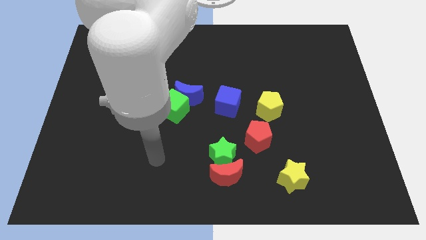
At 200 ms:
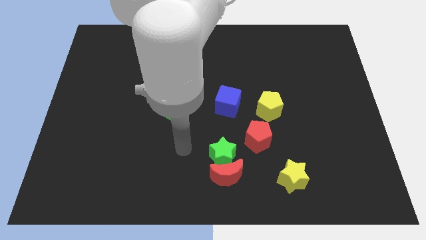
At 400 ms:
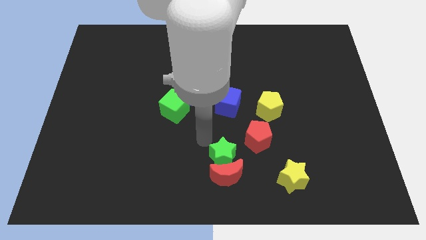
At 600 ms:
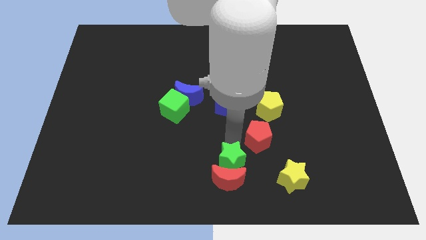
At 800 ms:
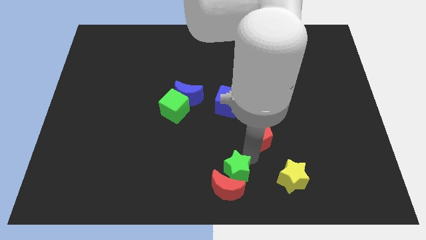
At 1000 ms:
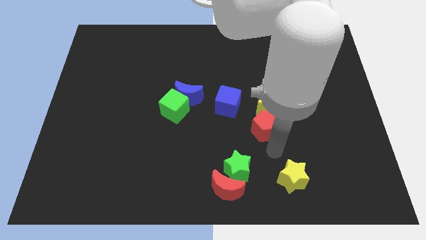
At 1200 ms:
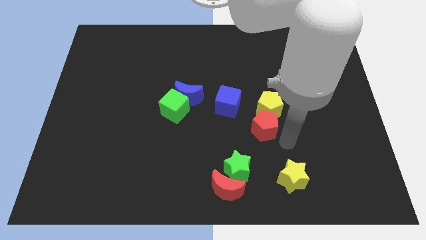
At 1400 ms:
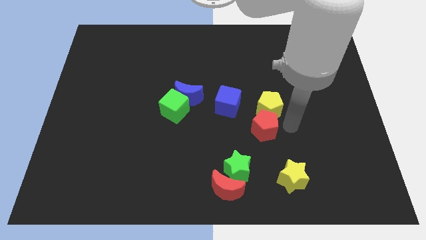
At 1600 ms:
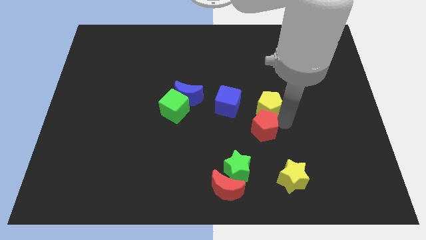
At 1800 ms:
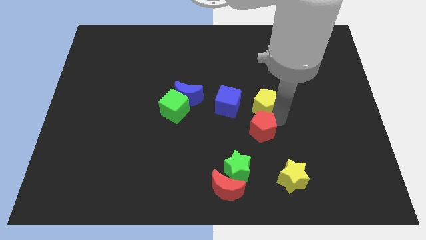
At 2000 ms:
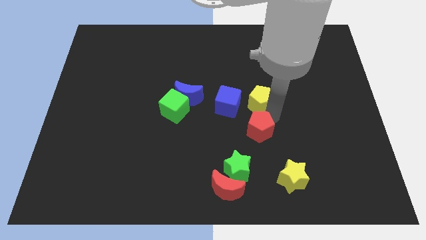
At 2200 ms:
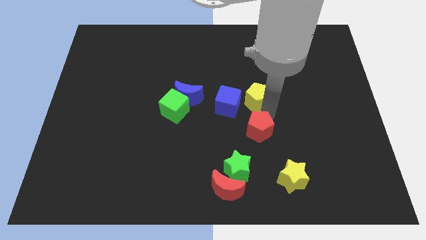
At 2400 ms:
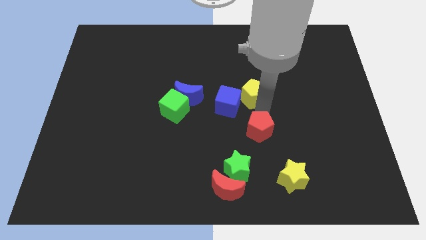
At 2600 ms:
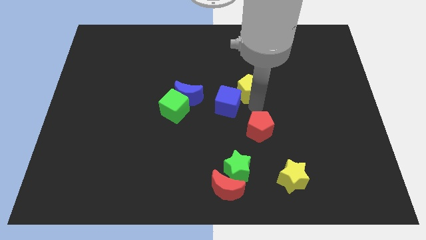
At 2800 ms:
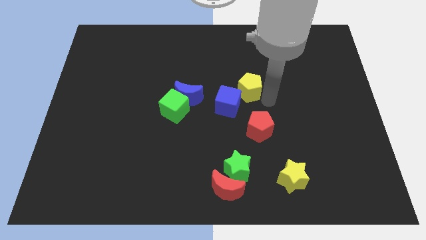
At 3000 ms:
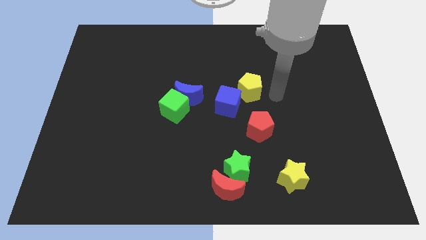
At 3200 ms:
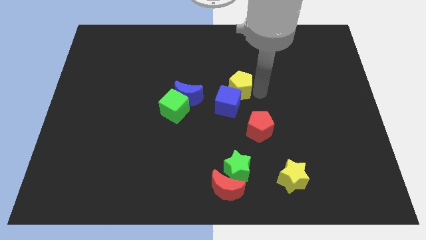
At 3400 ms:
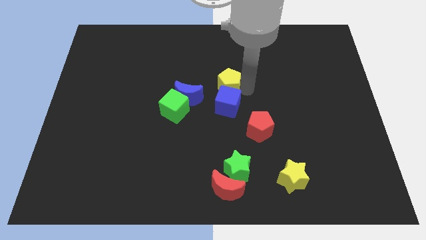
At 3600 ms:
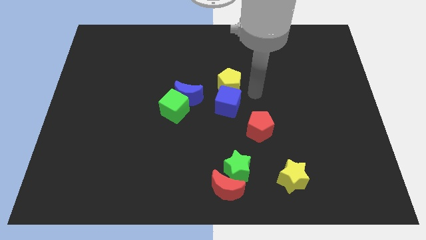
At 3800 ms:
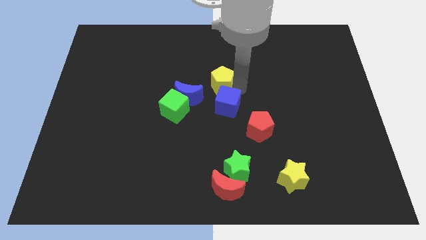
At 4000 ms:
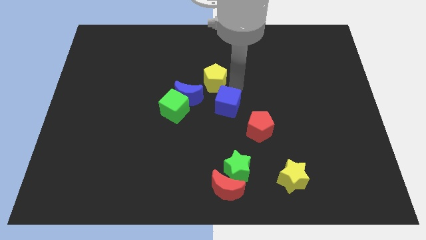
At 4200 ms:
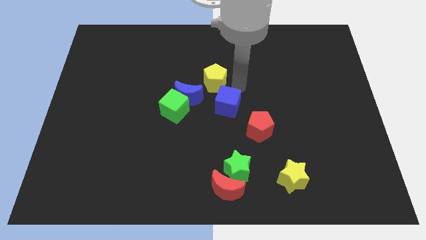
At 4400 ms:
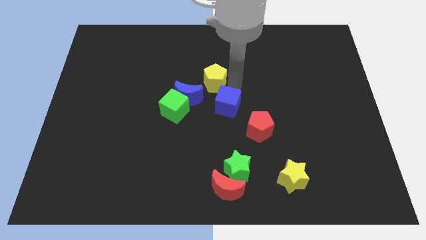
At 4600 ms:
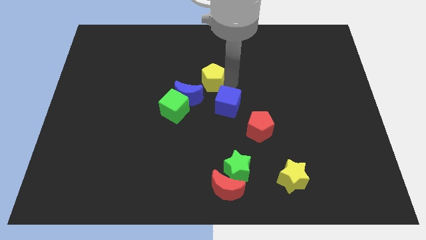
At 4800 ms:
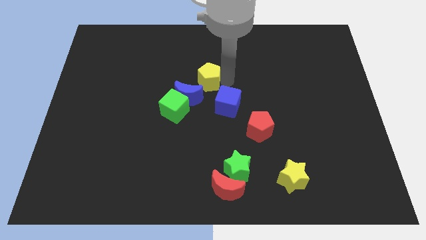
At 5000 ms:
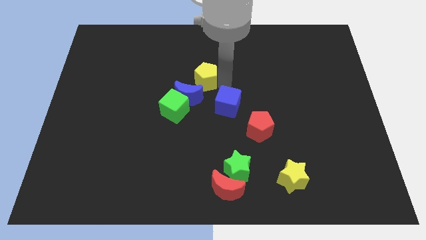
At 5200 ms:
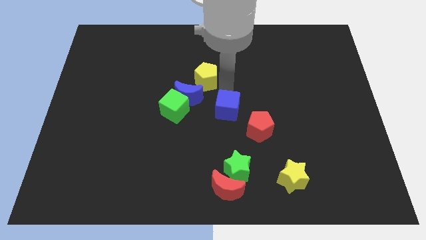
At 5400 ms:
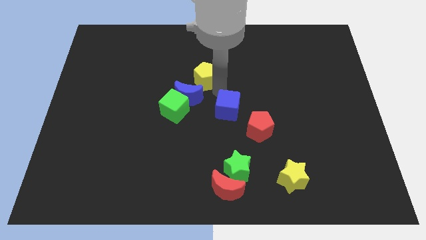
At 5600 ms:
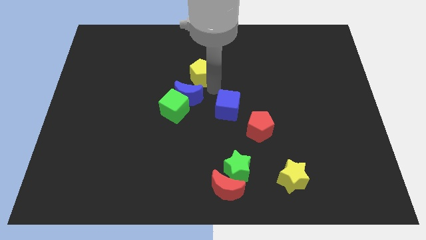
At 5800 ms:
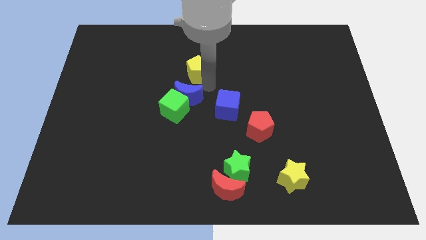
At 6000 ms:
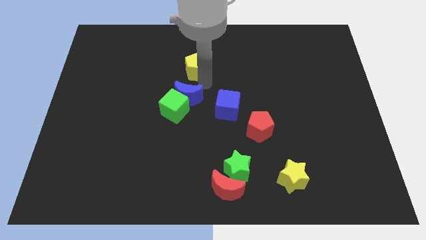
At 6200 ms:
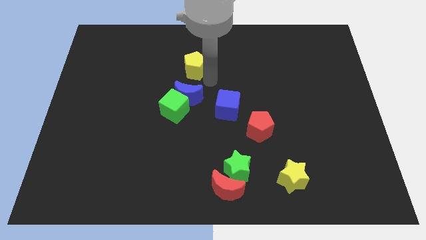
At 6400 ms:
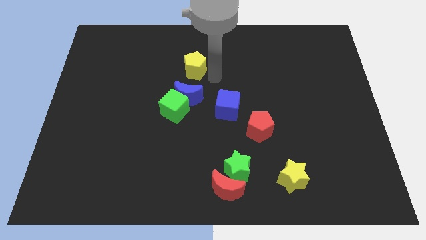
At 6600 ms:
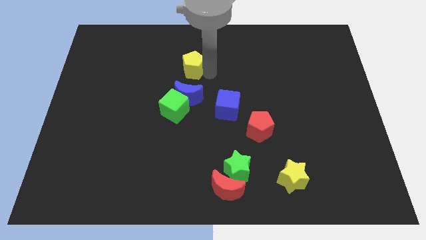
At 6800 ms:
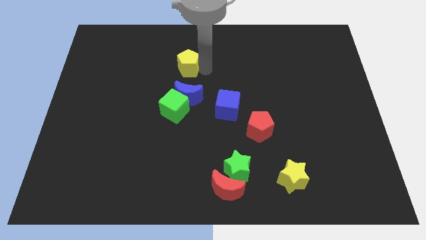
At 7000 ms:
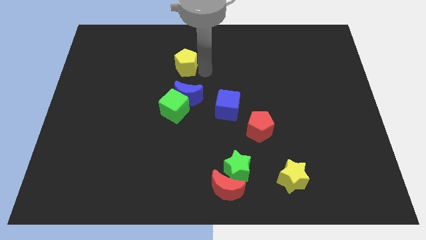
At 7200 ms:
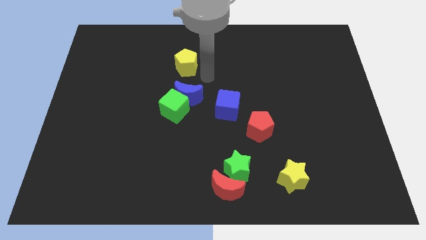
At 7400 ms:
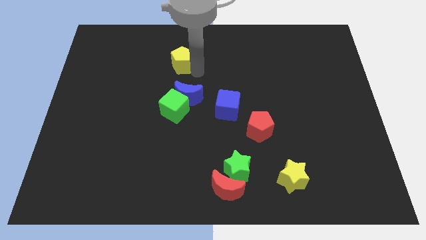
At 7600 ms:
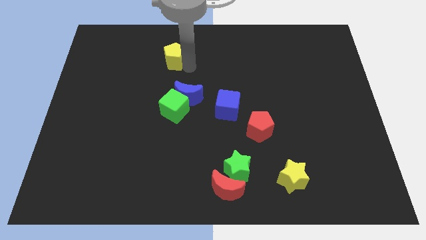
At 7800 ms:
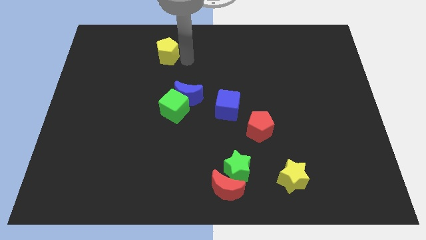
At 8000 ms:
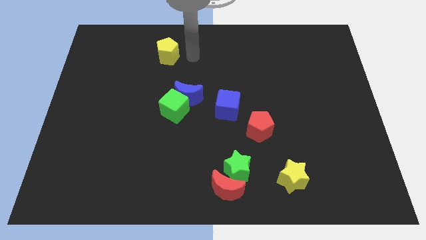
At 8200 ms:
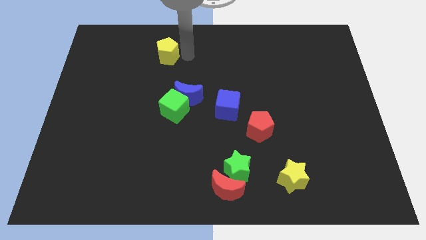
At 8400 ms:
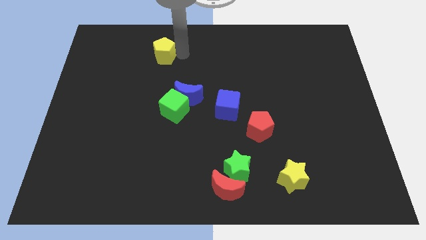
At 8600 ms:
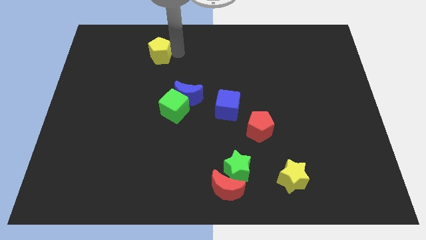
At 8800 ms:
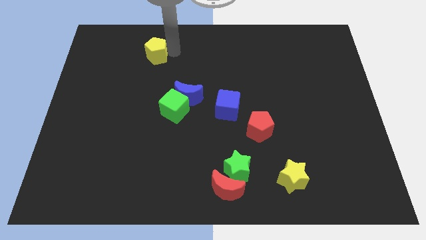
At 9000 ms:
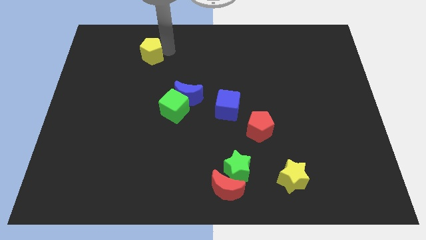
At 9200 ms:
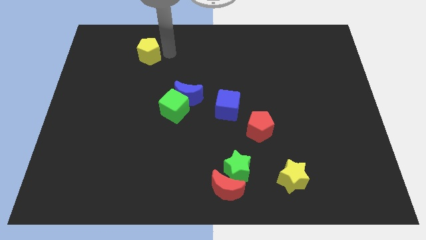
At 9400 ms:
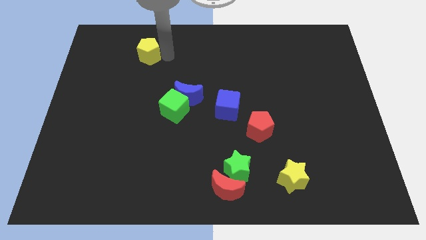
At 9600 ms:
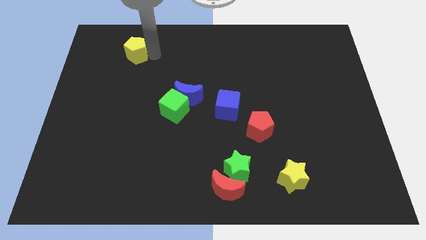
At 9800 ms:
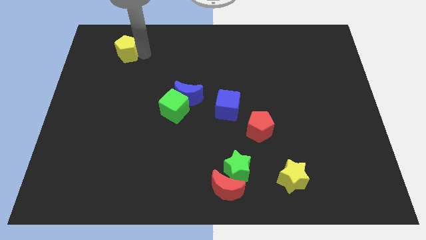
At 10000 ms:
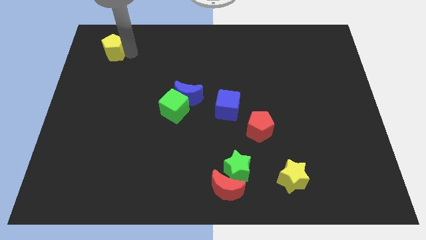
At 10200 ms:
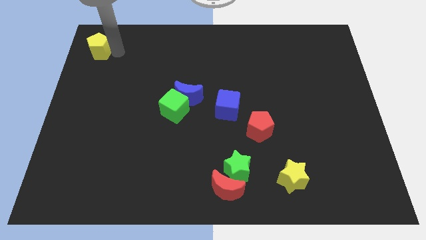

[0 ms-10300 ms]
put the yellow pentagon to the top left

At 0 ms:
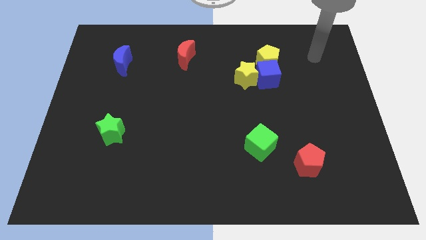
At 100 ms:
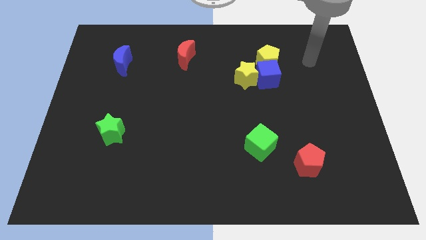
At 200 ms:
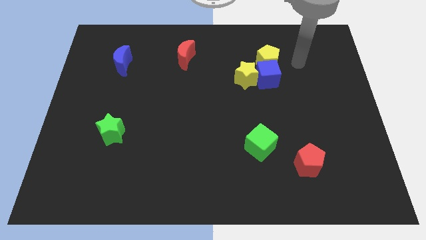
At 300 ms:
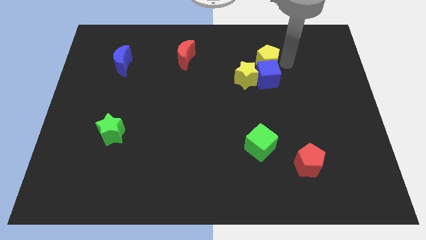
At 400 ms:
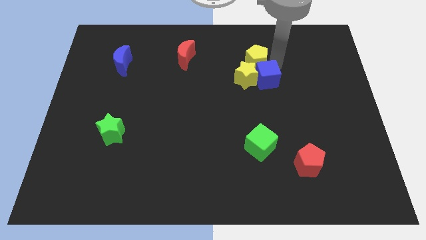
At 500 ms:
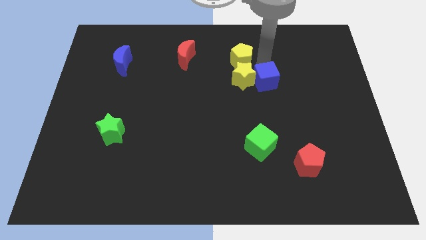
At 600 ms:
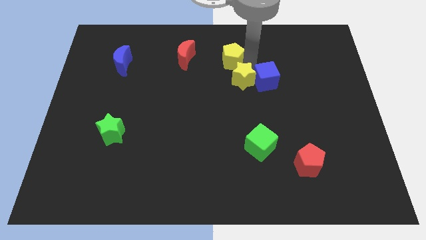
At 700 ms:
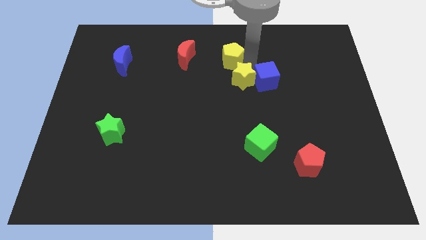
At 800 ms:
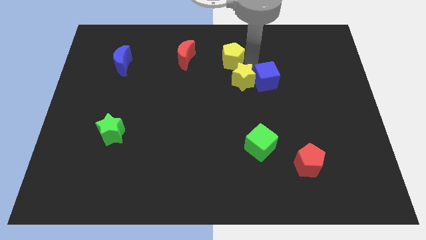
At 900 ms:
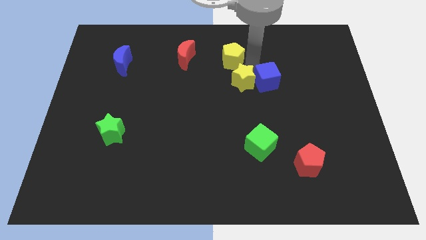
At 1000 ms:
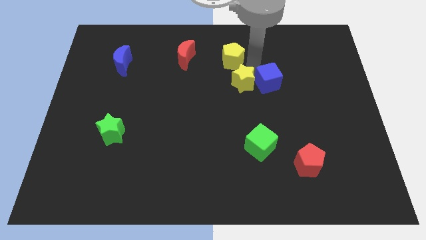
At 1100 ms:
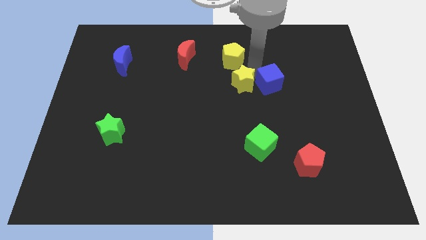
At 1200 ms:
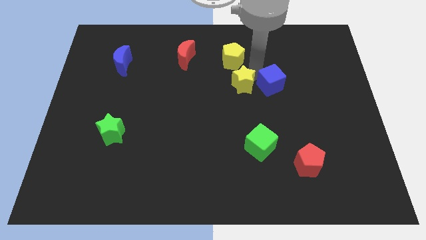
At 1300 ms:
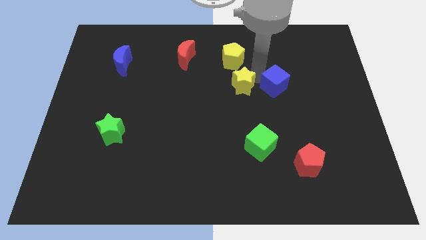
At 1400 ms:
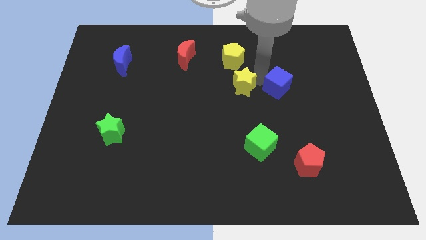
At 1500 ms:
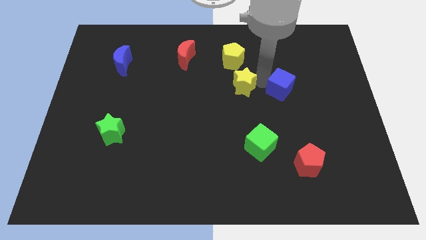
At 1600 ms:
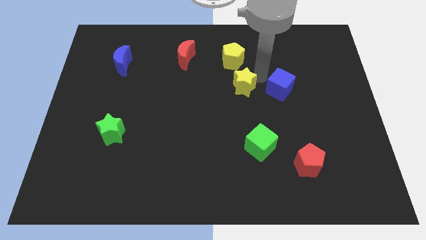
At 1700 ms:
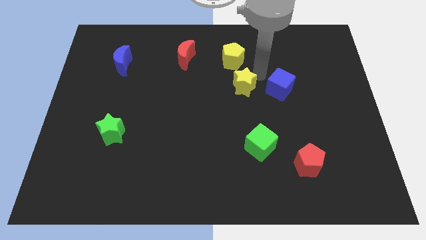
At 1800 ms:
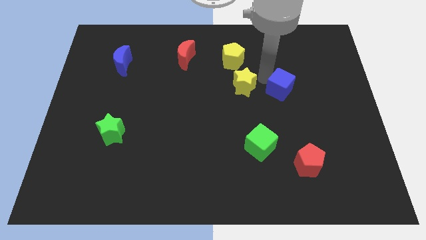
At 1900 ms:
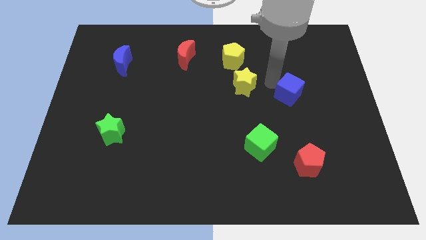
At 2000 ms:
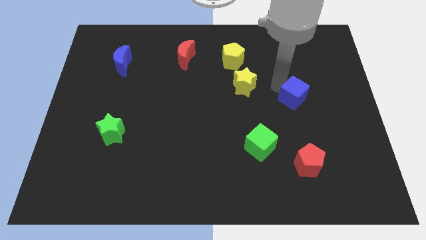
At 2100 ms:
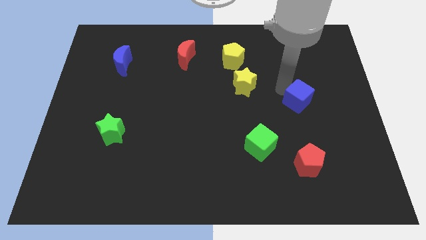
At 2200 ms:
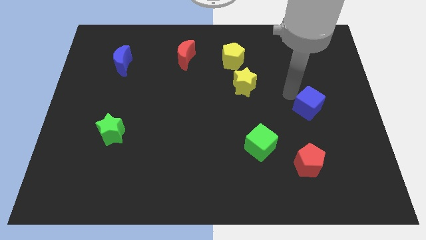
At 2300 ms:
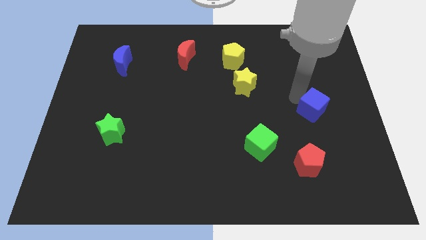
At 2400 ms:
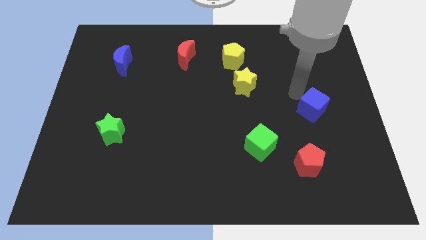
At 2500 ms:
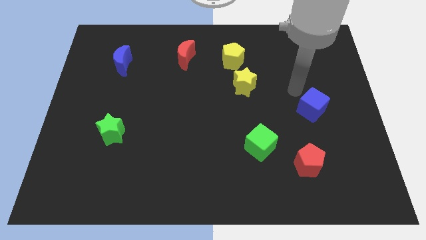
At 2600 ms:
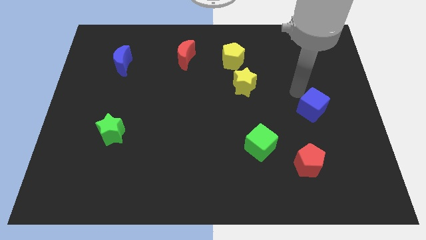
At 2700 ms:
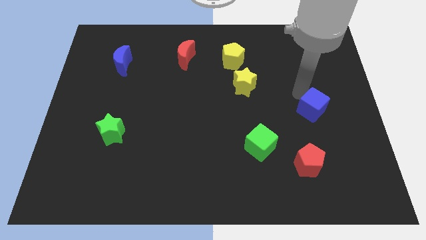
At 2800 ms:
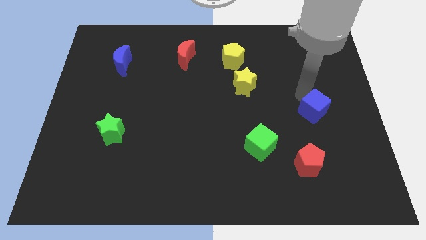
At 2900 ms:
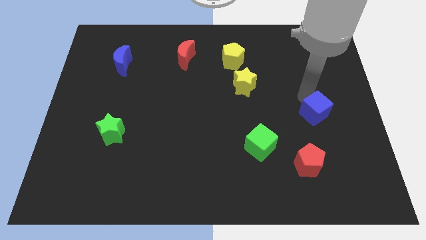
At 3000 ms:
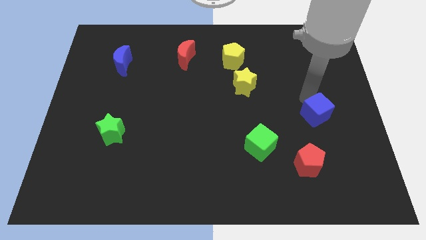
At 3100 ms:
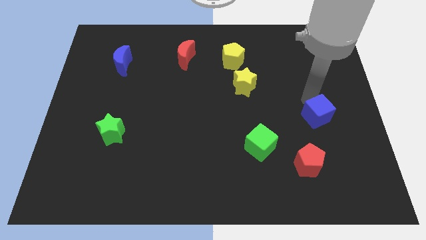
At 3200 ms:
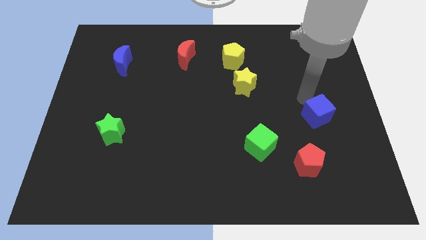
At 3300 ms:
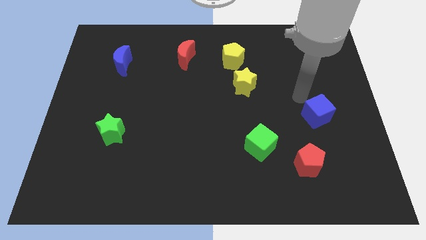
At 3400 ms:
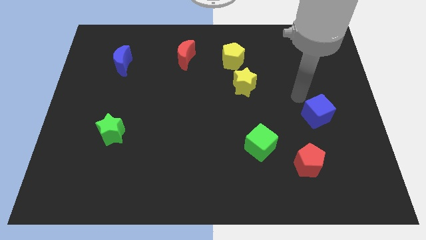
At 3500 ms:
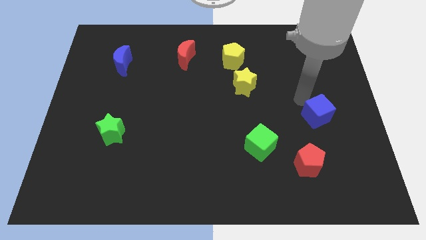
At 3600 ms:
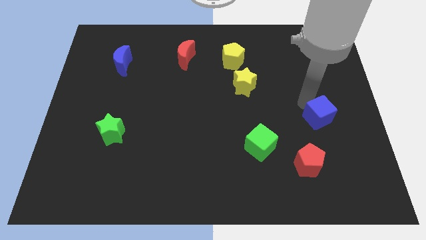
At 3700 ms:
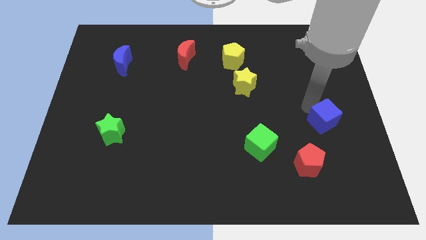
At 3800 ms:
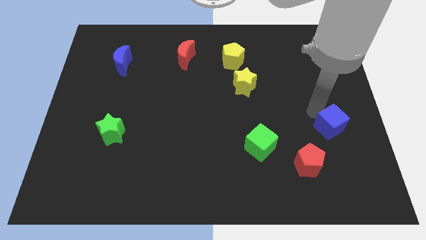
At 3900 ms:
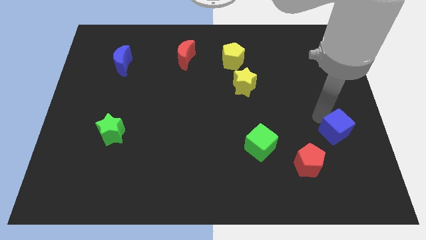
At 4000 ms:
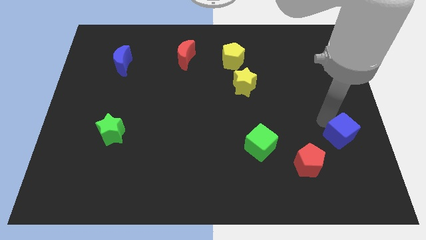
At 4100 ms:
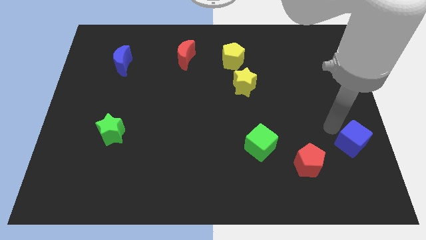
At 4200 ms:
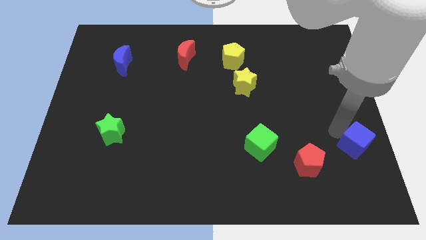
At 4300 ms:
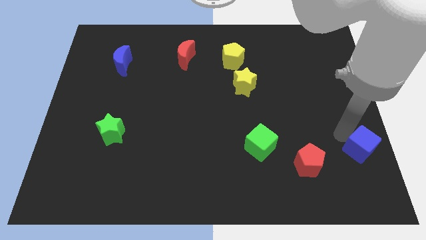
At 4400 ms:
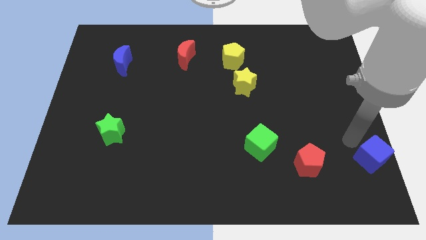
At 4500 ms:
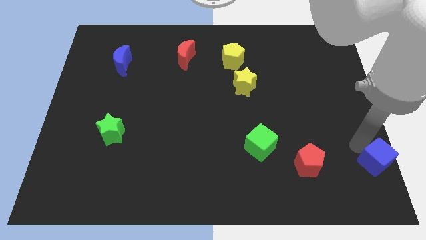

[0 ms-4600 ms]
slide the blue cube to the bottom right of the board
